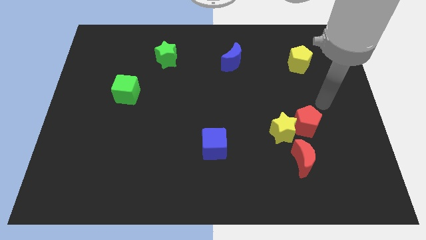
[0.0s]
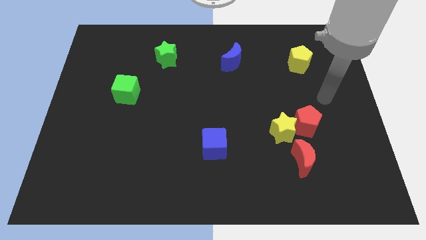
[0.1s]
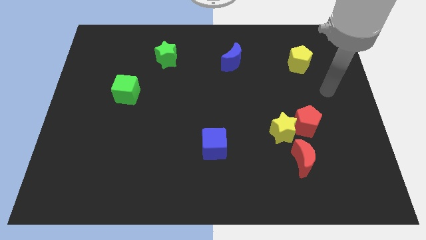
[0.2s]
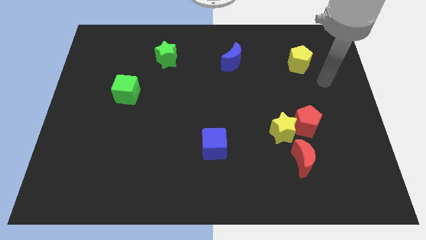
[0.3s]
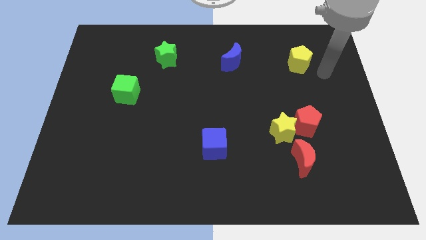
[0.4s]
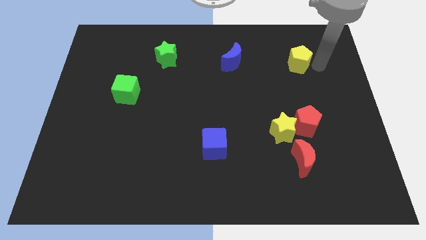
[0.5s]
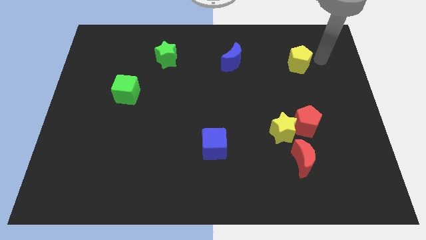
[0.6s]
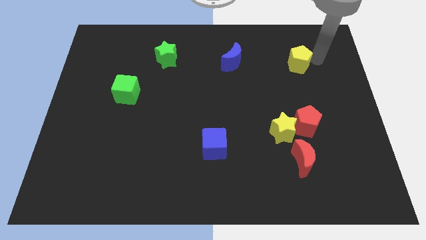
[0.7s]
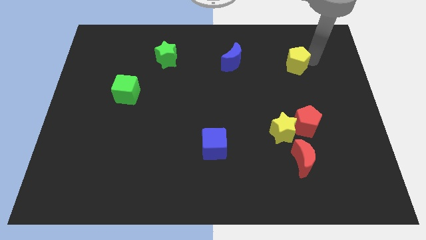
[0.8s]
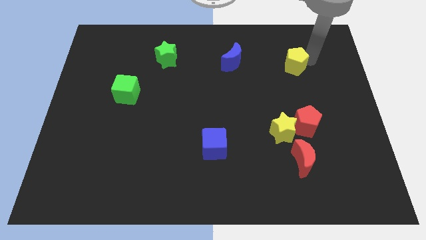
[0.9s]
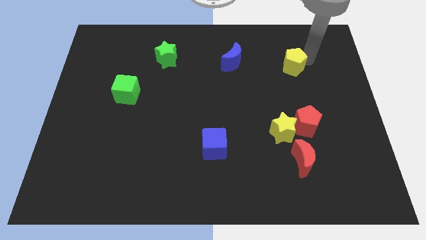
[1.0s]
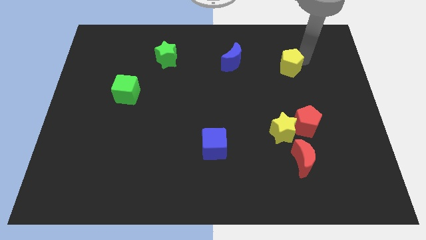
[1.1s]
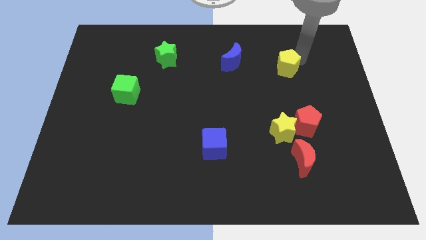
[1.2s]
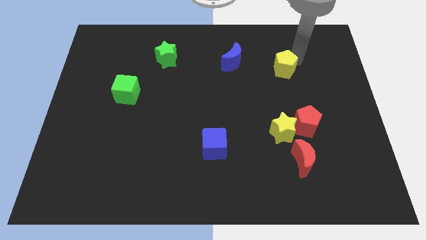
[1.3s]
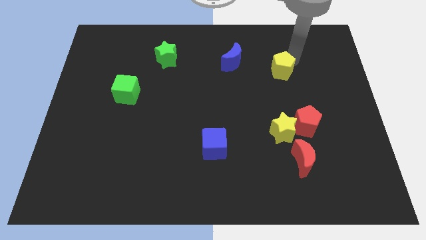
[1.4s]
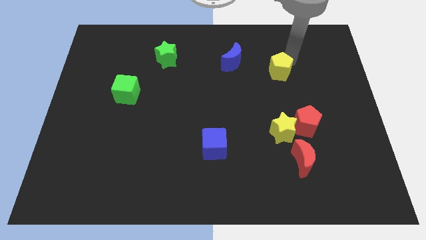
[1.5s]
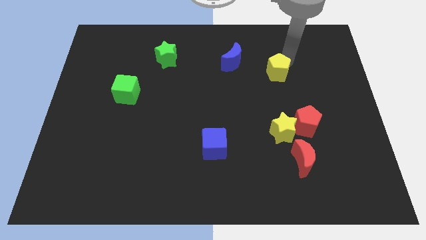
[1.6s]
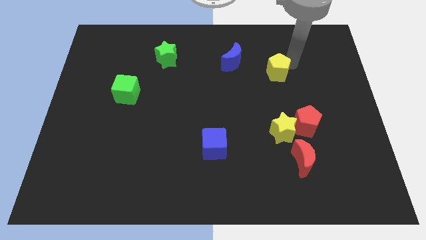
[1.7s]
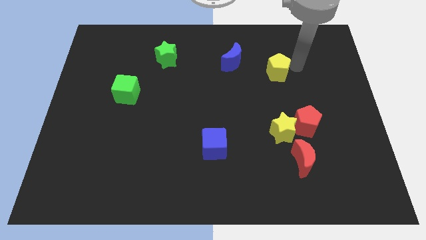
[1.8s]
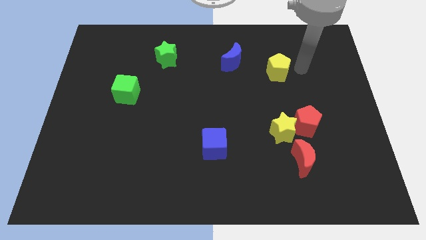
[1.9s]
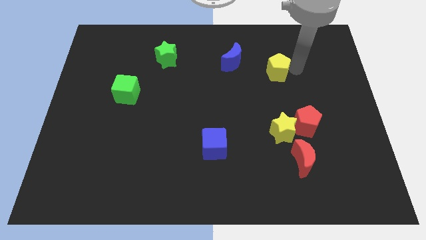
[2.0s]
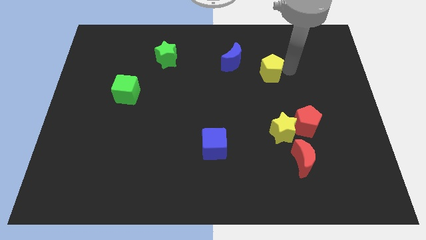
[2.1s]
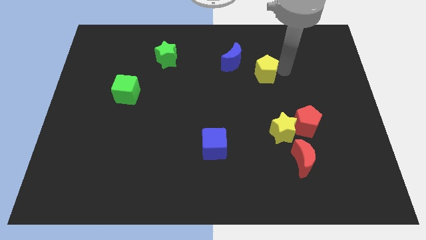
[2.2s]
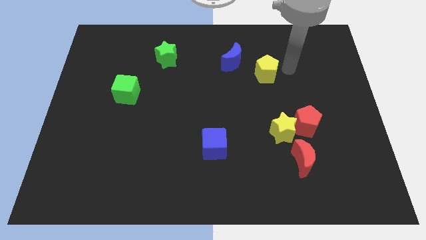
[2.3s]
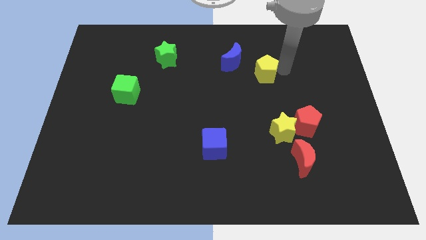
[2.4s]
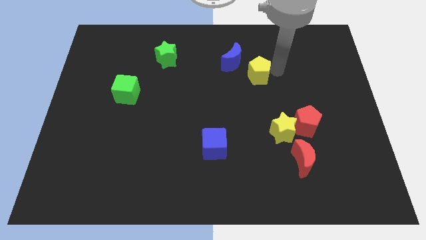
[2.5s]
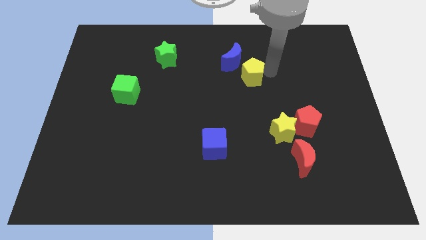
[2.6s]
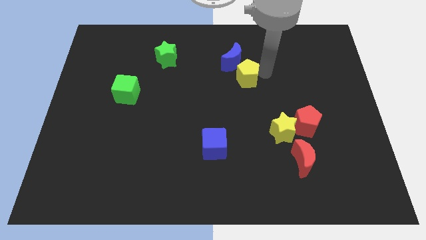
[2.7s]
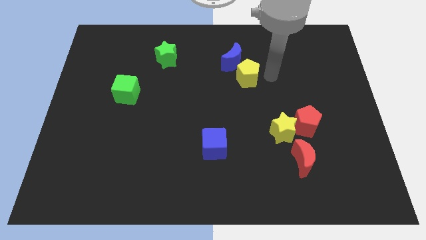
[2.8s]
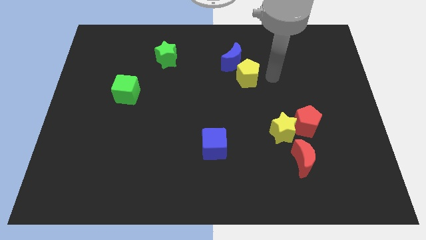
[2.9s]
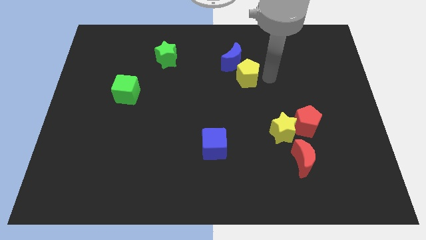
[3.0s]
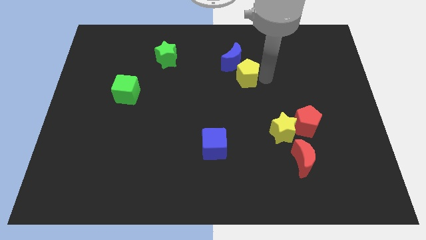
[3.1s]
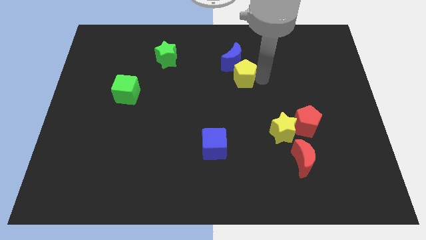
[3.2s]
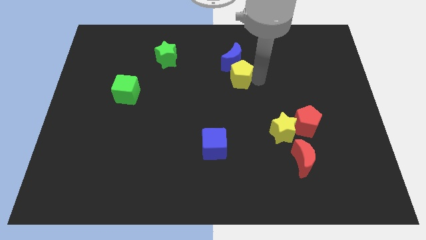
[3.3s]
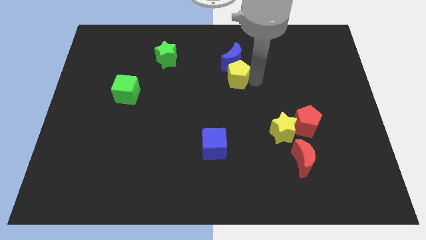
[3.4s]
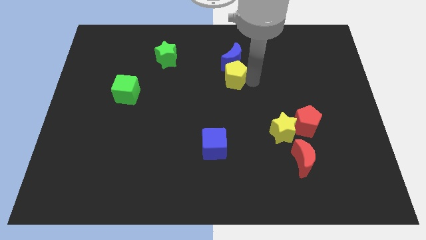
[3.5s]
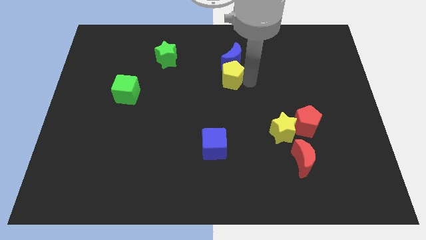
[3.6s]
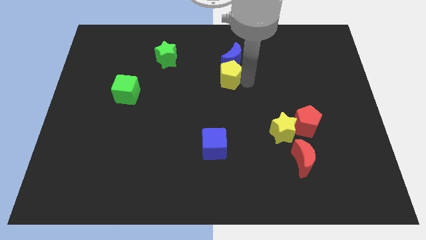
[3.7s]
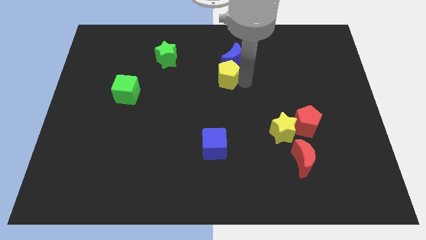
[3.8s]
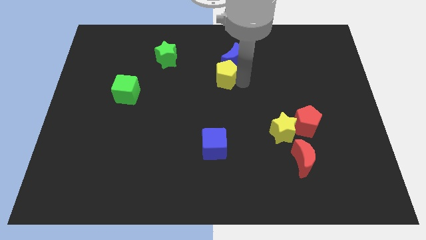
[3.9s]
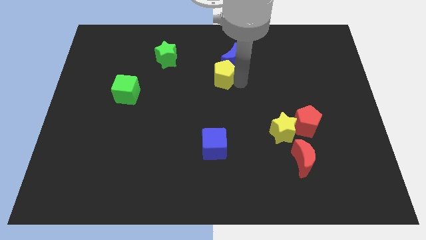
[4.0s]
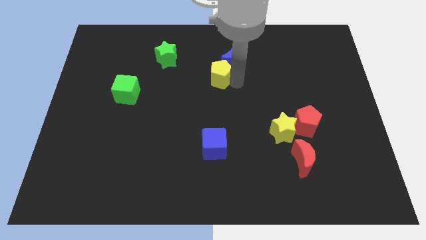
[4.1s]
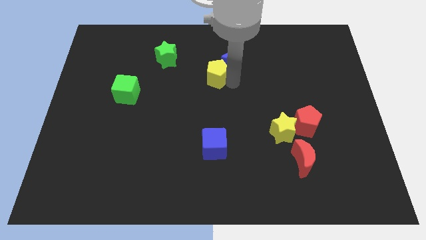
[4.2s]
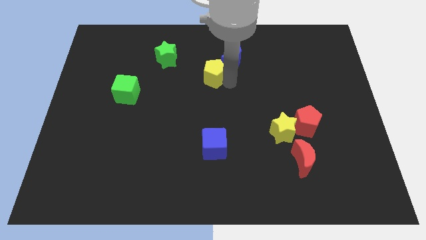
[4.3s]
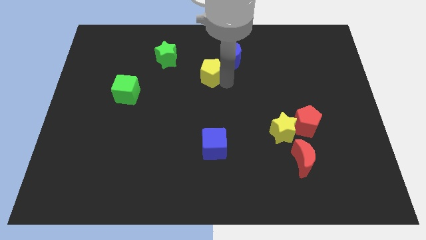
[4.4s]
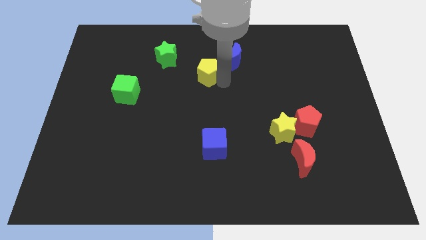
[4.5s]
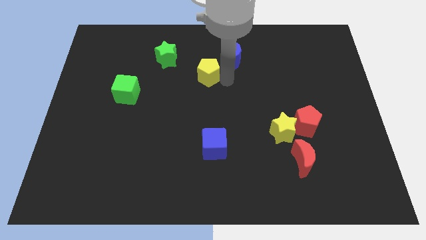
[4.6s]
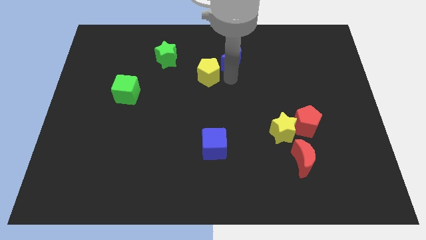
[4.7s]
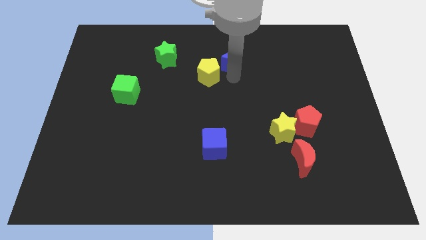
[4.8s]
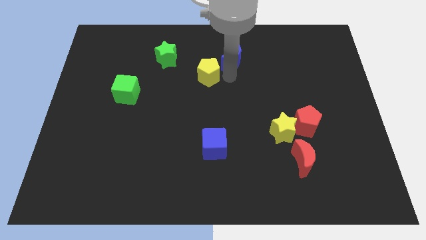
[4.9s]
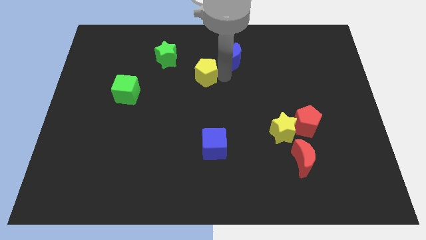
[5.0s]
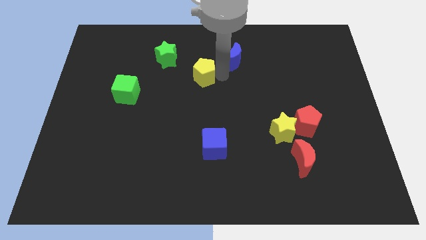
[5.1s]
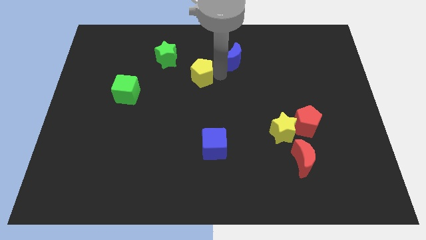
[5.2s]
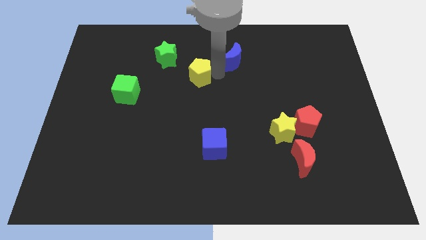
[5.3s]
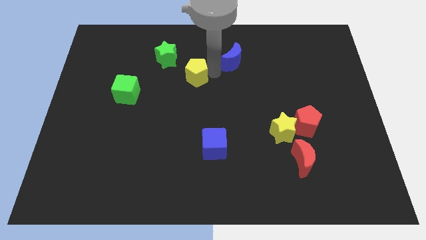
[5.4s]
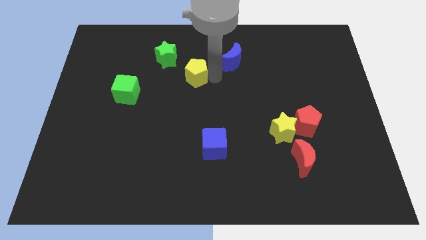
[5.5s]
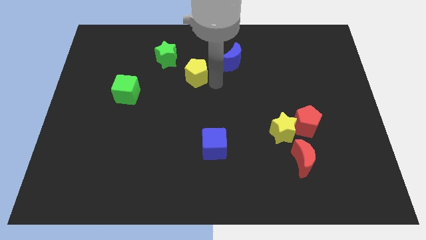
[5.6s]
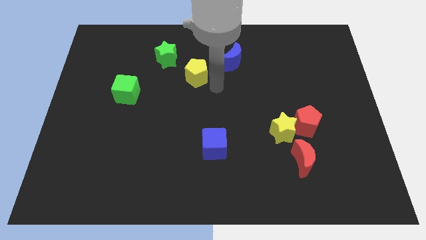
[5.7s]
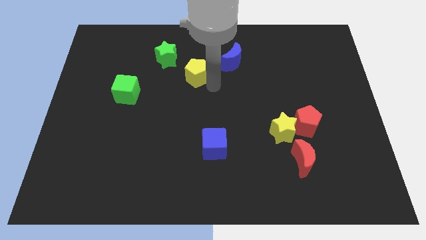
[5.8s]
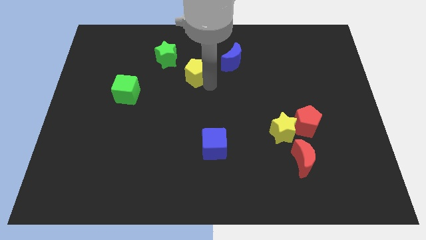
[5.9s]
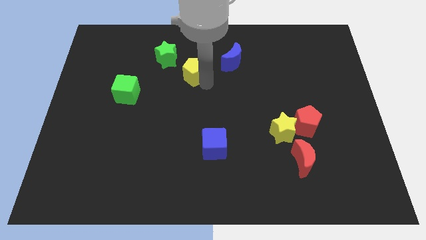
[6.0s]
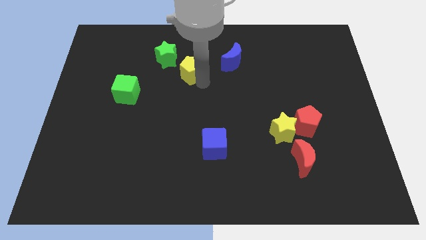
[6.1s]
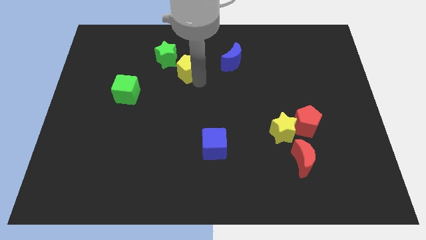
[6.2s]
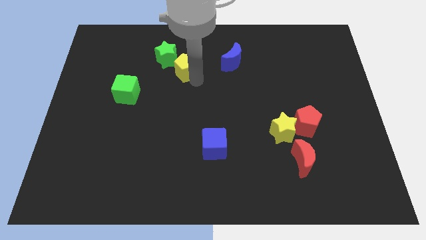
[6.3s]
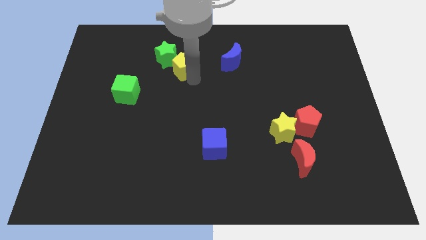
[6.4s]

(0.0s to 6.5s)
push the yellow pentagon next to the green star
